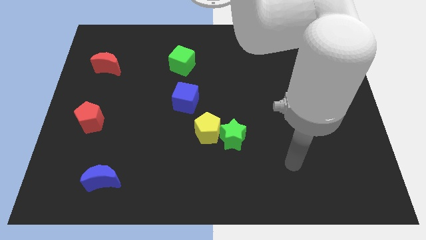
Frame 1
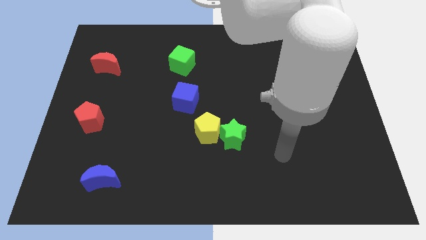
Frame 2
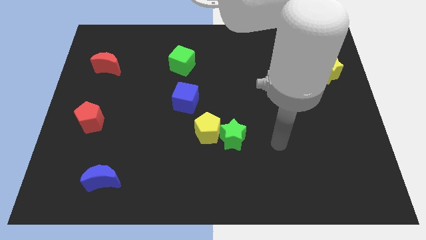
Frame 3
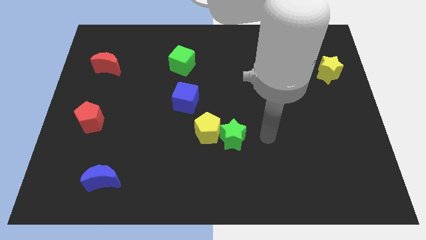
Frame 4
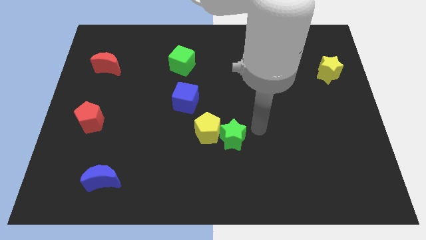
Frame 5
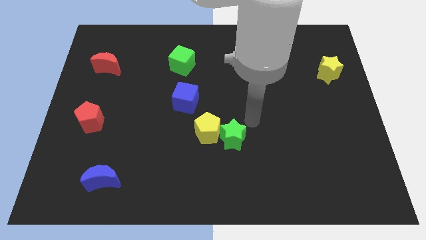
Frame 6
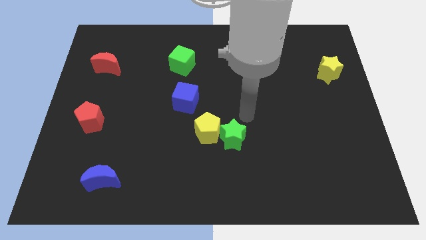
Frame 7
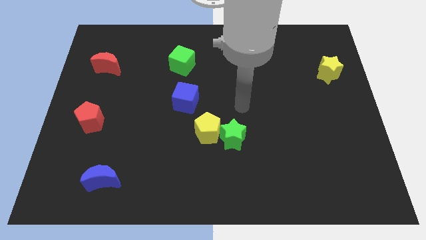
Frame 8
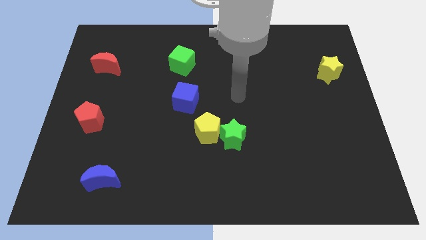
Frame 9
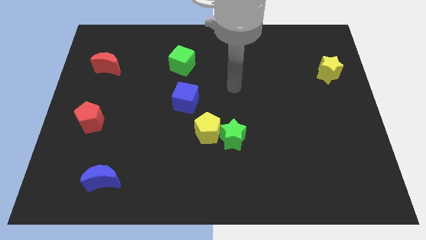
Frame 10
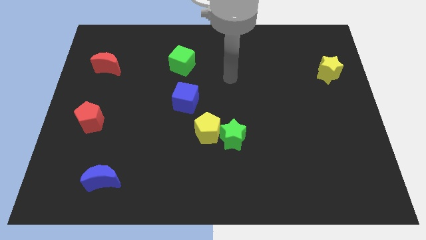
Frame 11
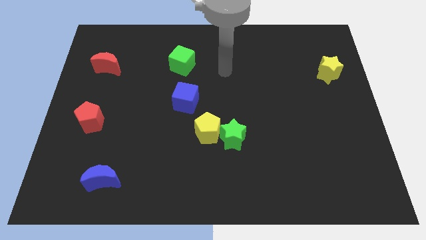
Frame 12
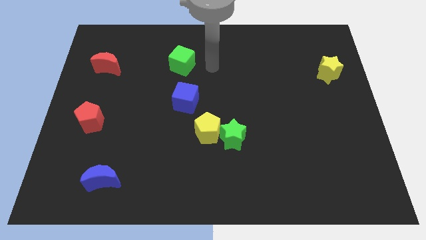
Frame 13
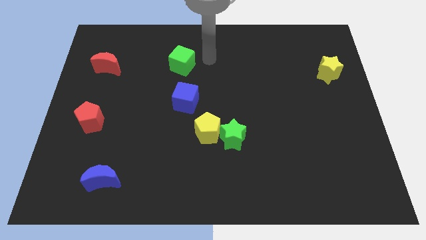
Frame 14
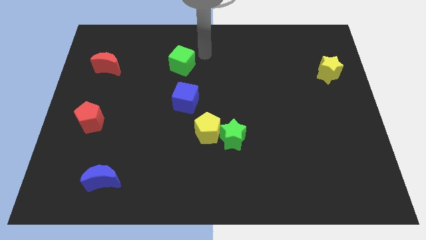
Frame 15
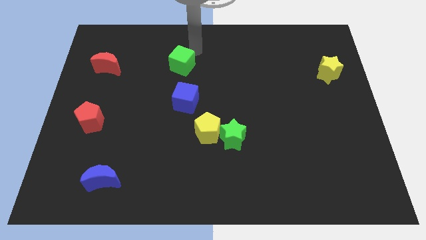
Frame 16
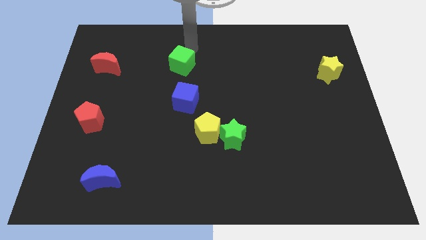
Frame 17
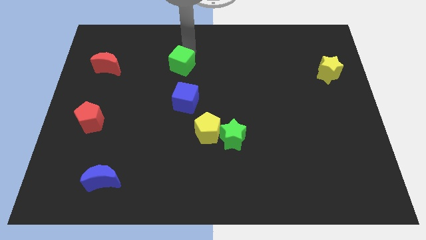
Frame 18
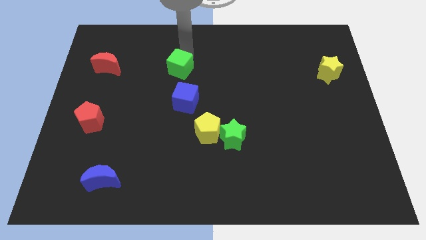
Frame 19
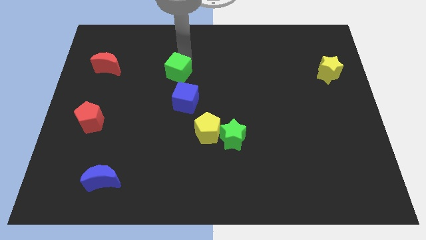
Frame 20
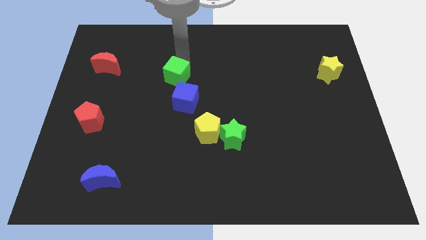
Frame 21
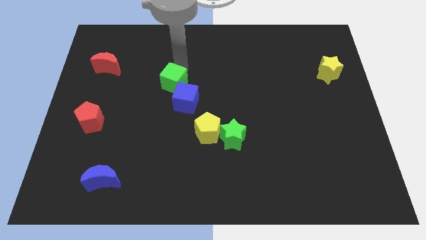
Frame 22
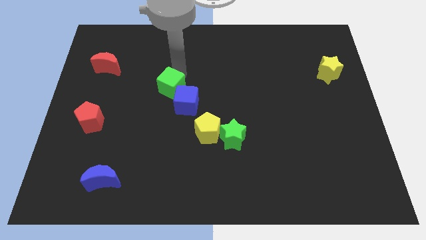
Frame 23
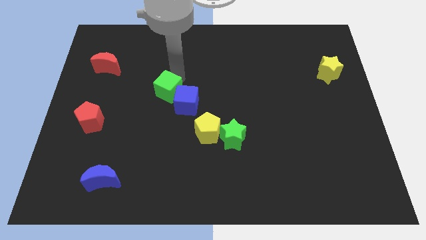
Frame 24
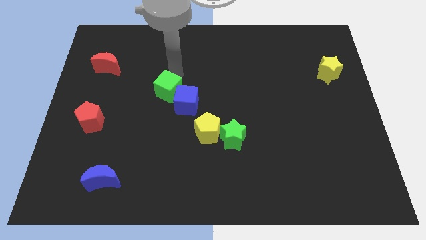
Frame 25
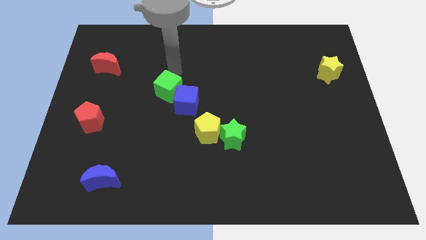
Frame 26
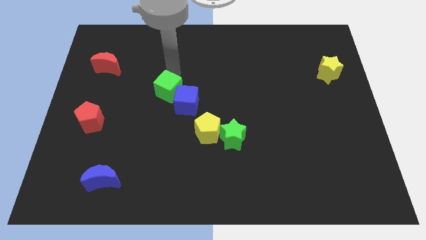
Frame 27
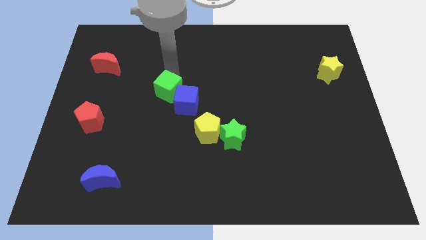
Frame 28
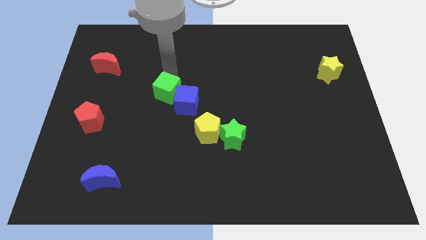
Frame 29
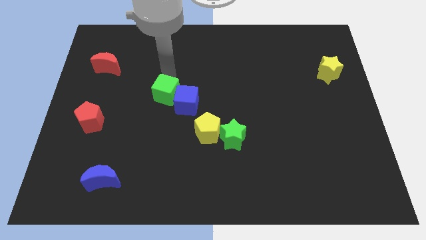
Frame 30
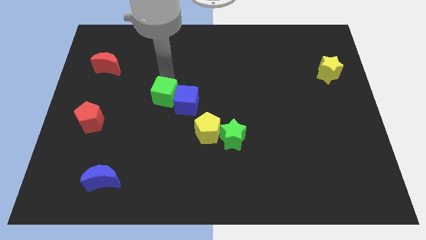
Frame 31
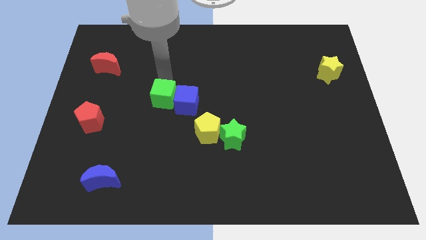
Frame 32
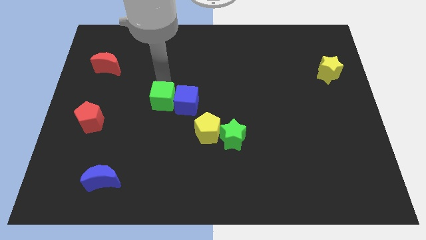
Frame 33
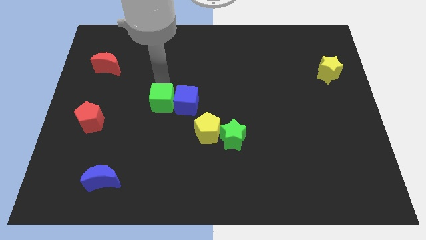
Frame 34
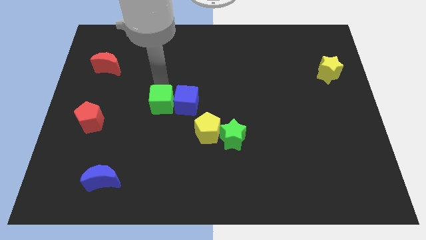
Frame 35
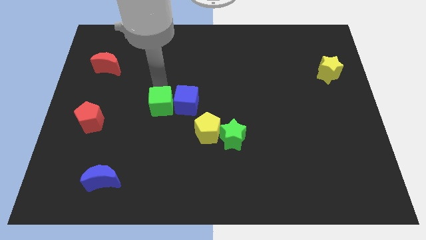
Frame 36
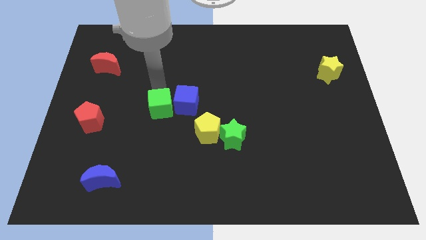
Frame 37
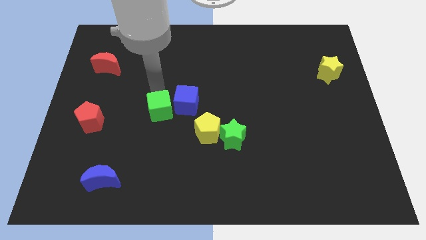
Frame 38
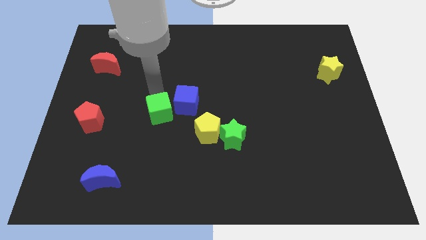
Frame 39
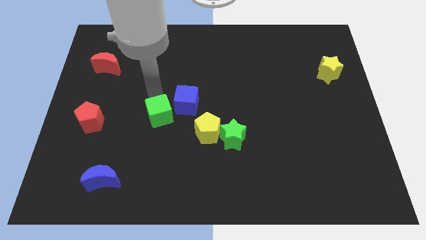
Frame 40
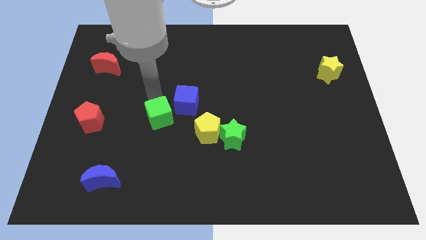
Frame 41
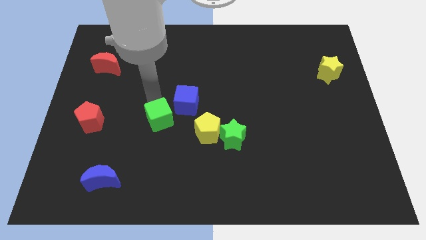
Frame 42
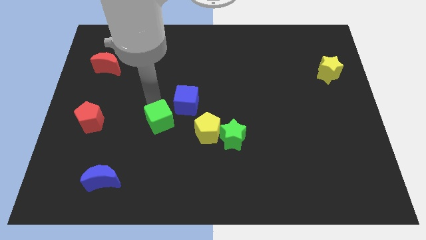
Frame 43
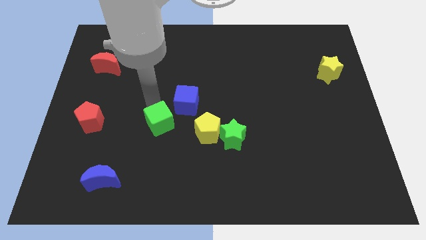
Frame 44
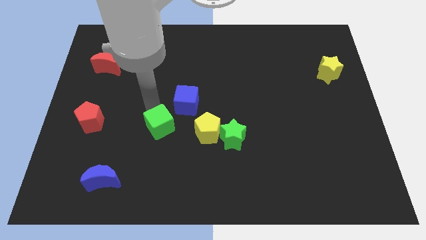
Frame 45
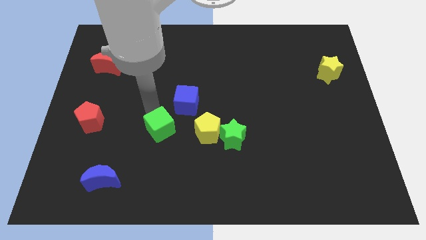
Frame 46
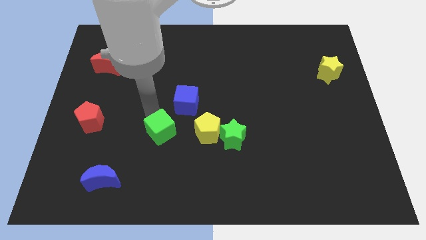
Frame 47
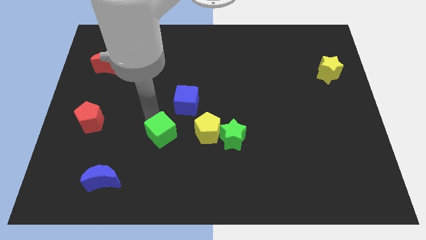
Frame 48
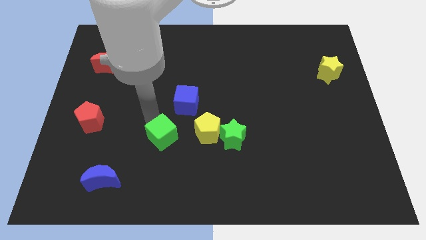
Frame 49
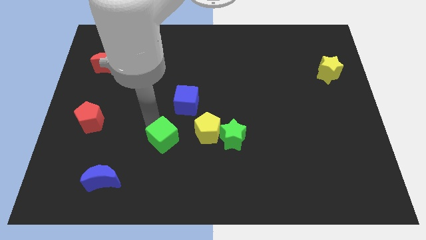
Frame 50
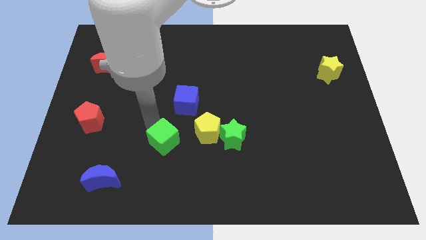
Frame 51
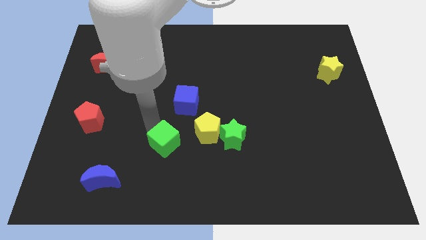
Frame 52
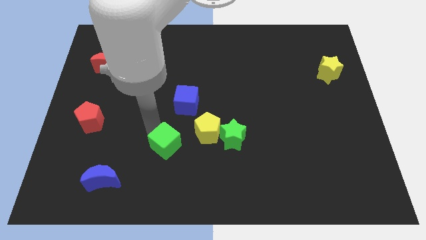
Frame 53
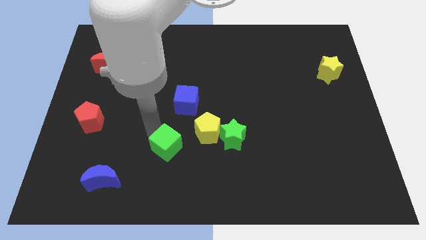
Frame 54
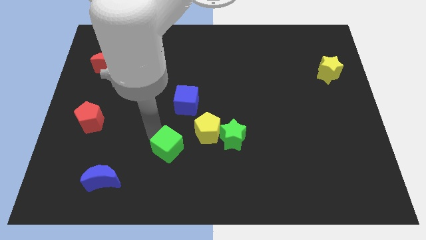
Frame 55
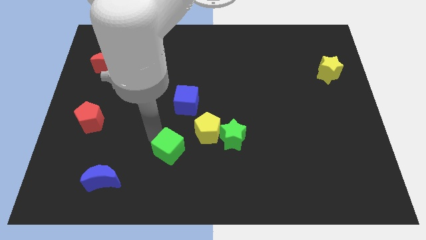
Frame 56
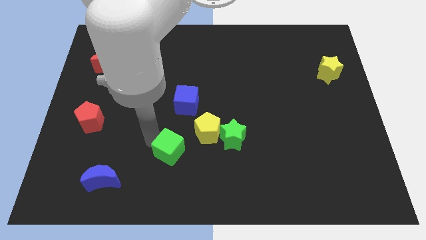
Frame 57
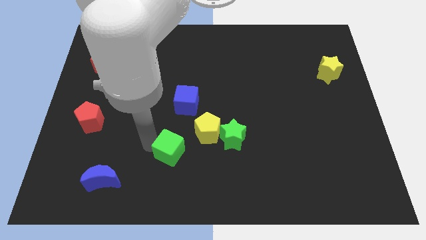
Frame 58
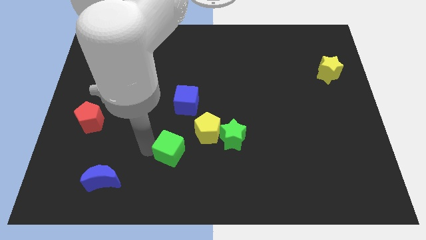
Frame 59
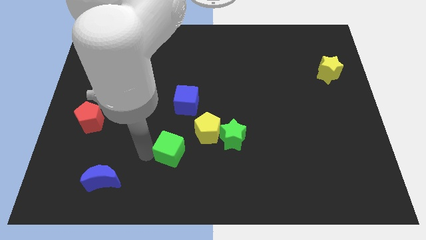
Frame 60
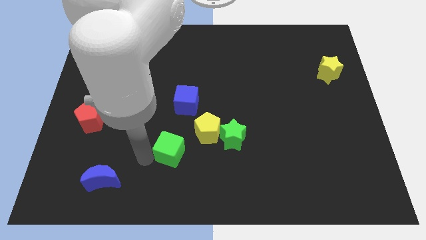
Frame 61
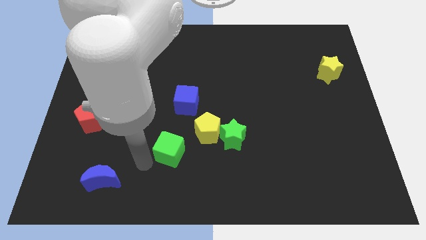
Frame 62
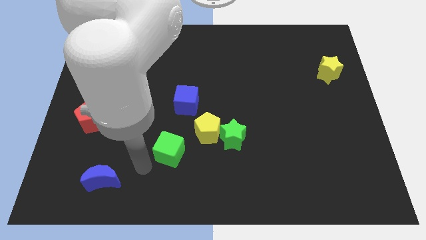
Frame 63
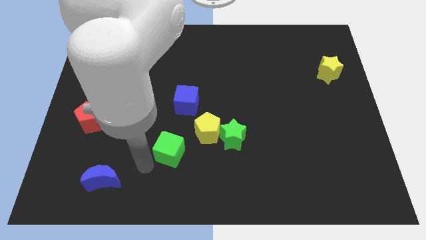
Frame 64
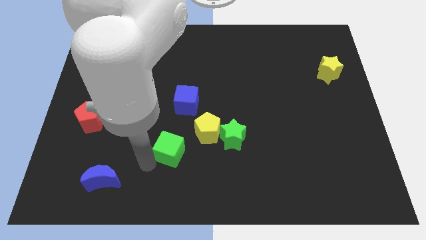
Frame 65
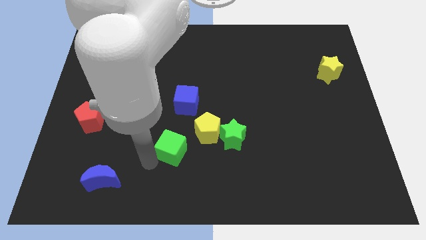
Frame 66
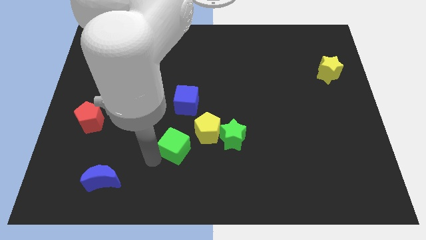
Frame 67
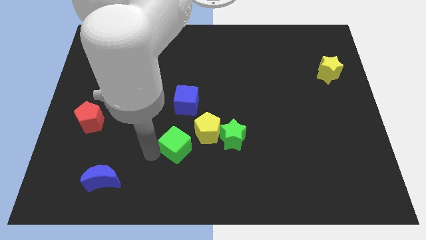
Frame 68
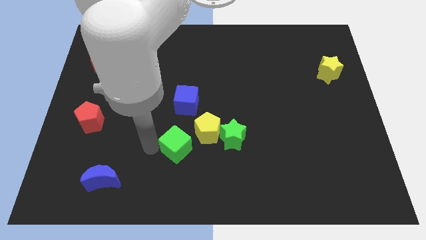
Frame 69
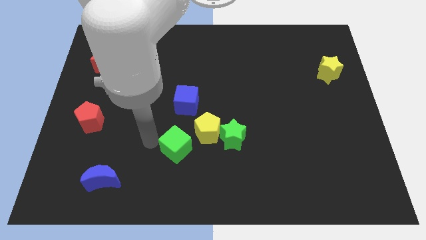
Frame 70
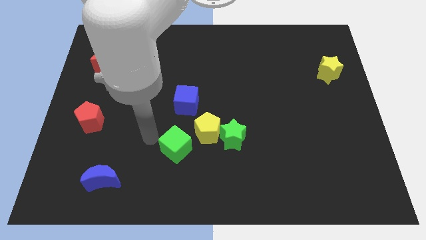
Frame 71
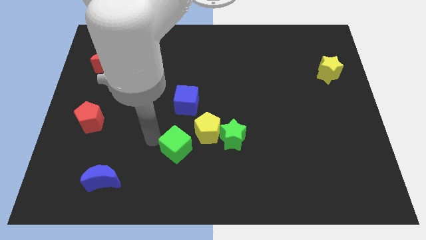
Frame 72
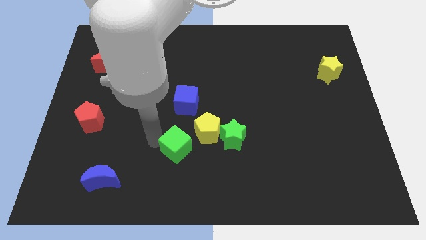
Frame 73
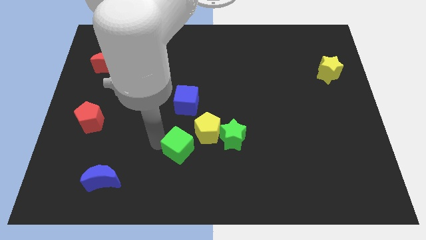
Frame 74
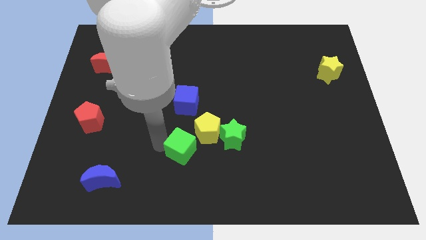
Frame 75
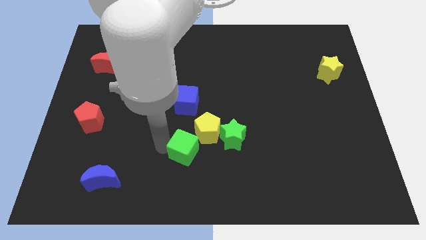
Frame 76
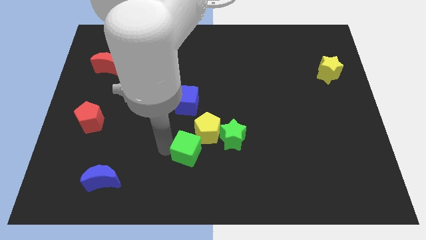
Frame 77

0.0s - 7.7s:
move the green cube diagonally down and to the left of the green star
